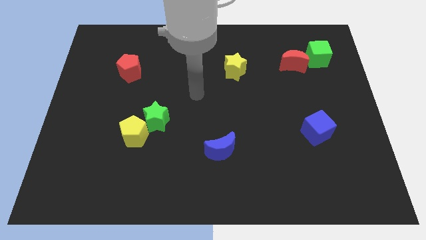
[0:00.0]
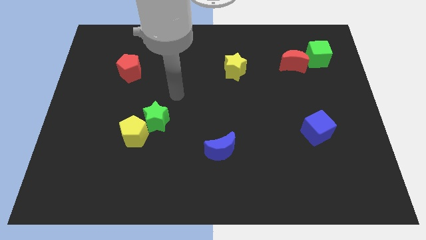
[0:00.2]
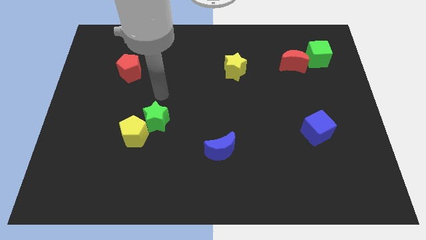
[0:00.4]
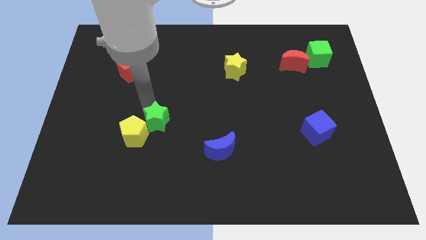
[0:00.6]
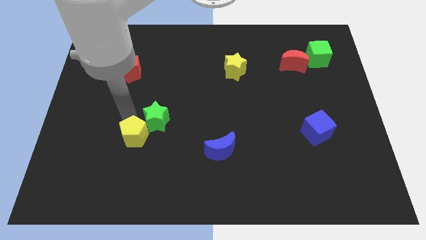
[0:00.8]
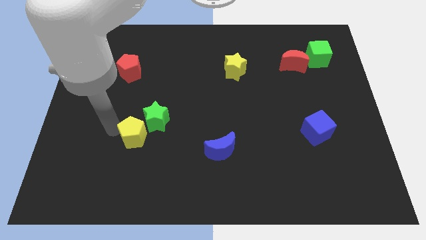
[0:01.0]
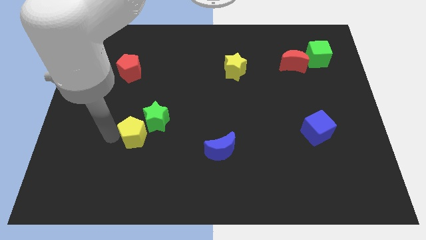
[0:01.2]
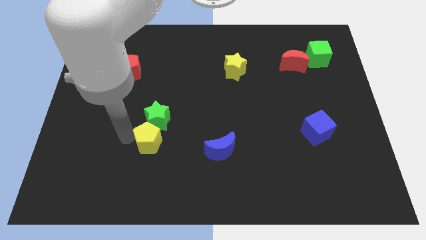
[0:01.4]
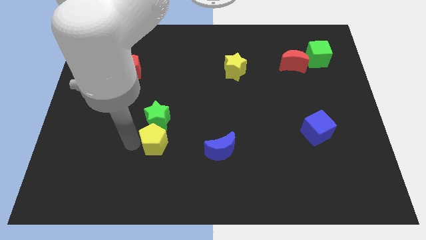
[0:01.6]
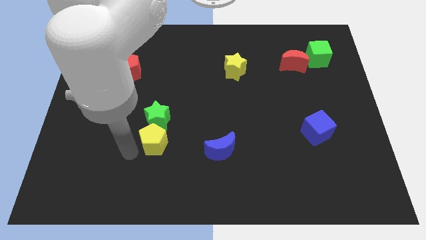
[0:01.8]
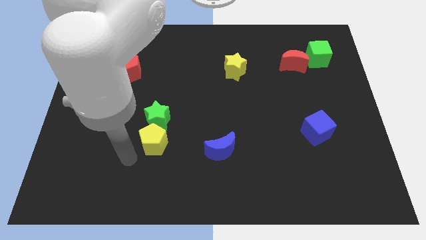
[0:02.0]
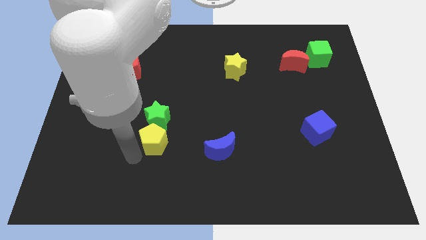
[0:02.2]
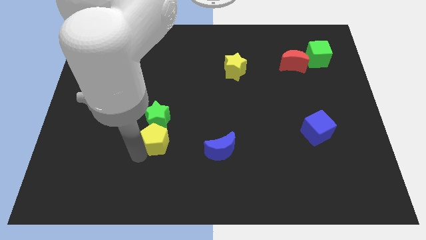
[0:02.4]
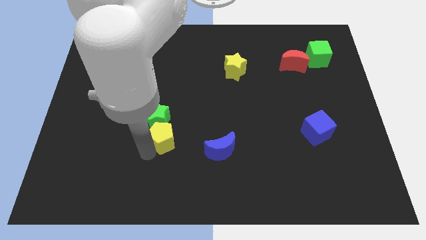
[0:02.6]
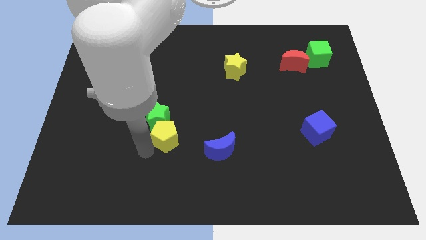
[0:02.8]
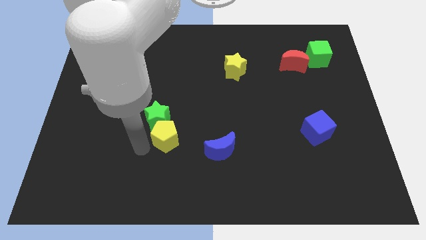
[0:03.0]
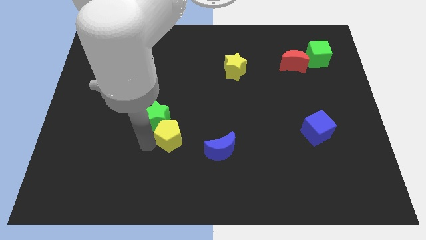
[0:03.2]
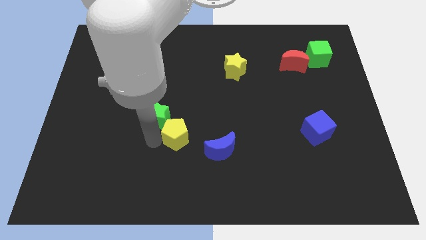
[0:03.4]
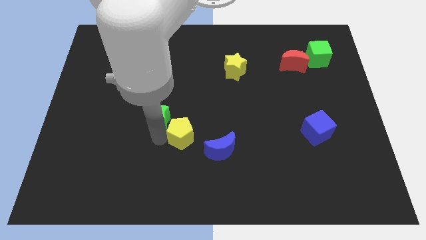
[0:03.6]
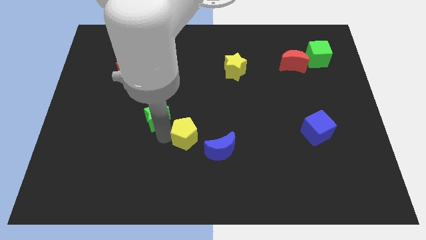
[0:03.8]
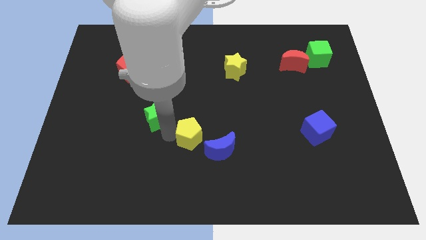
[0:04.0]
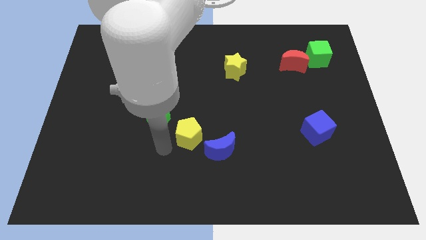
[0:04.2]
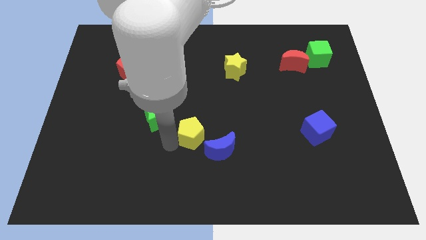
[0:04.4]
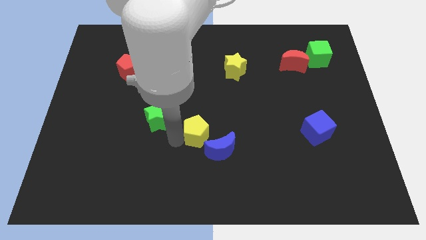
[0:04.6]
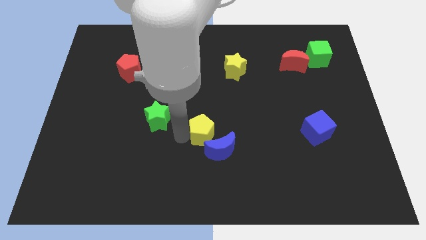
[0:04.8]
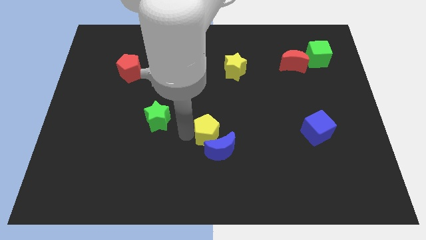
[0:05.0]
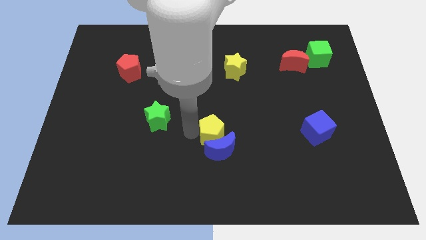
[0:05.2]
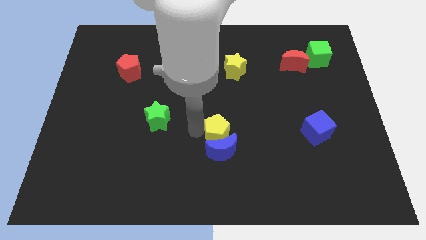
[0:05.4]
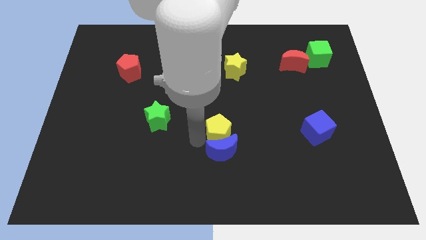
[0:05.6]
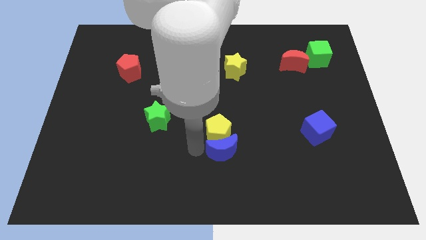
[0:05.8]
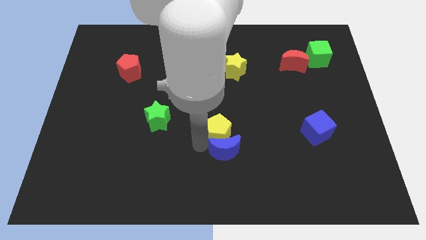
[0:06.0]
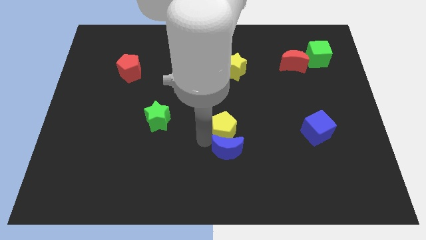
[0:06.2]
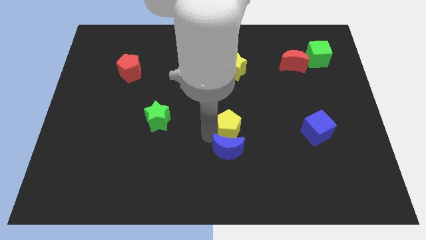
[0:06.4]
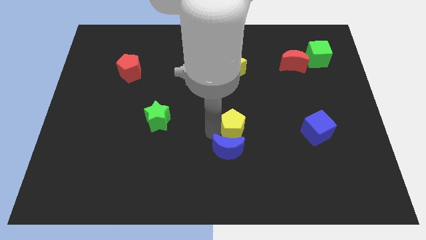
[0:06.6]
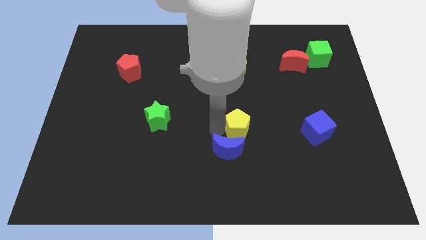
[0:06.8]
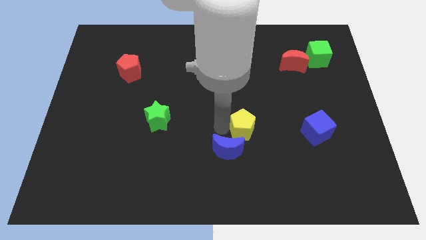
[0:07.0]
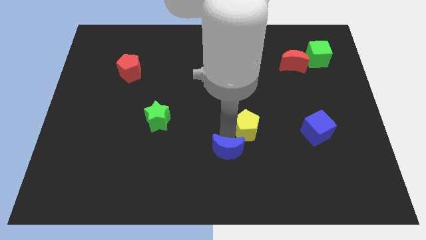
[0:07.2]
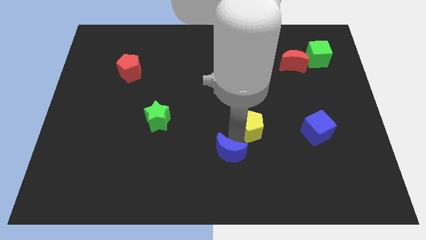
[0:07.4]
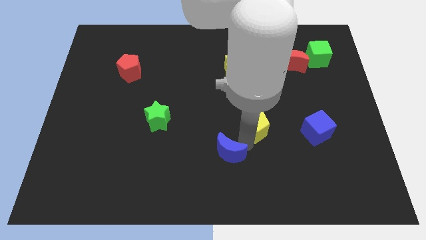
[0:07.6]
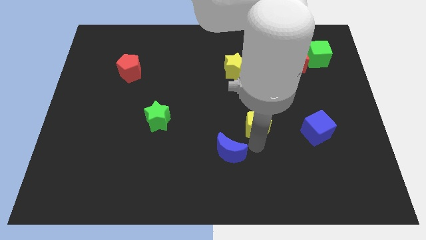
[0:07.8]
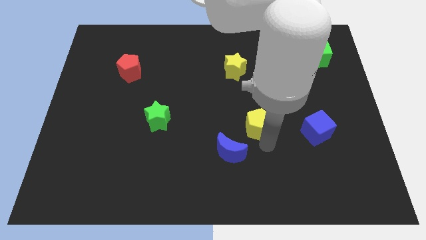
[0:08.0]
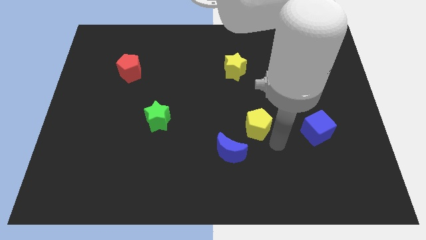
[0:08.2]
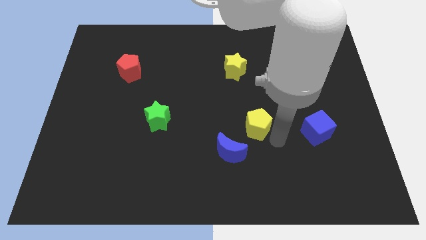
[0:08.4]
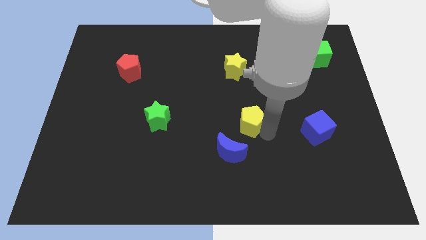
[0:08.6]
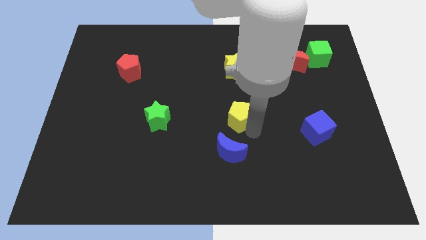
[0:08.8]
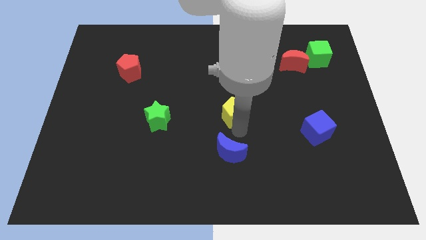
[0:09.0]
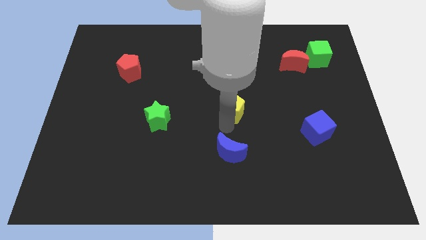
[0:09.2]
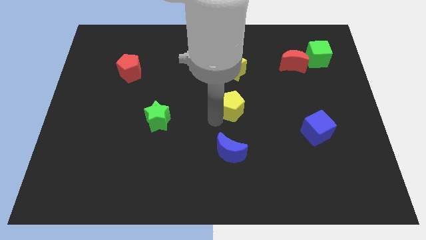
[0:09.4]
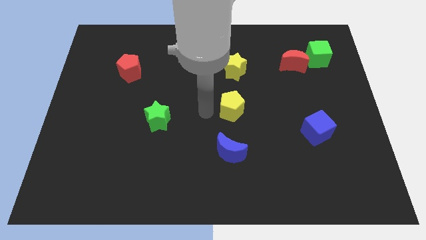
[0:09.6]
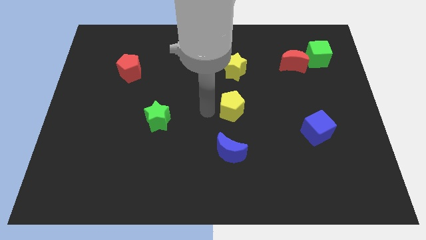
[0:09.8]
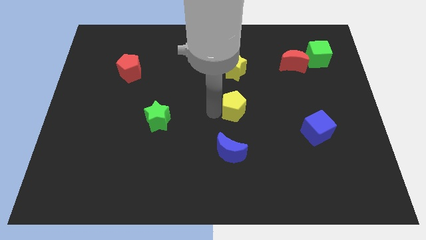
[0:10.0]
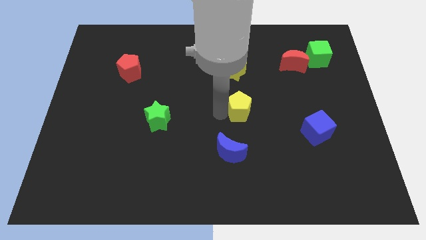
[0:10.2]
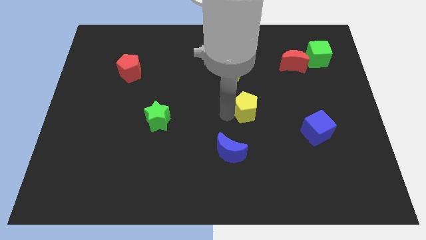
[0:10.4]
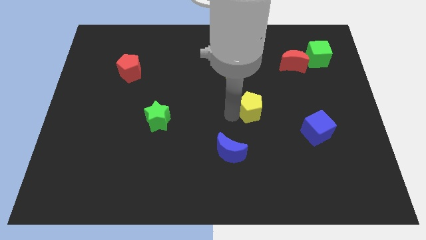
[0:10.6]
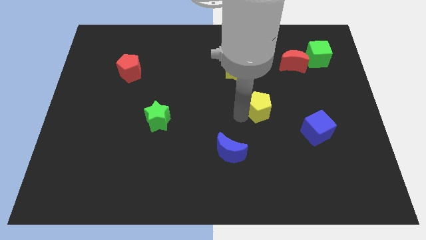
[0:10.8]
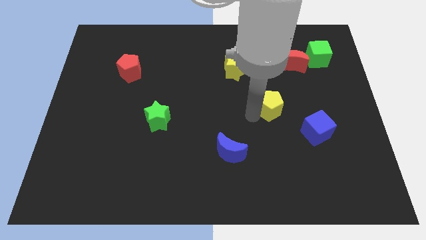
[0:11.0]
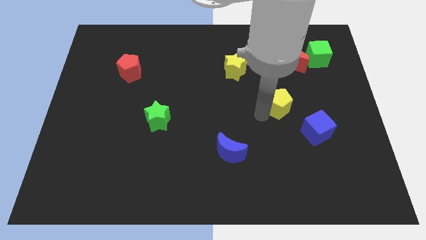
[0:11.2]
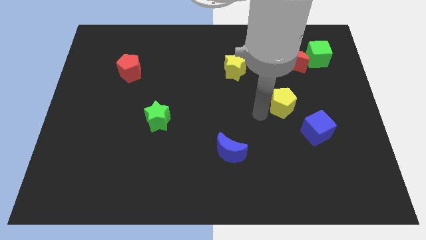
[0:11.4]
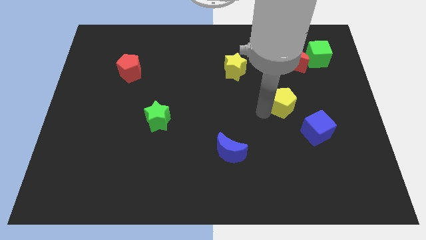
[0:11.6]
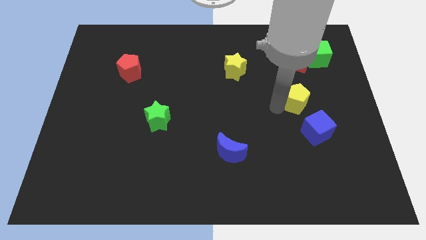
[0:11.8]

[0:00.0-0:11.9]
slide the yellow pentagon to the top of the blue cube

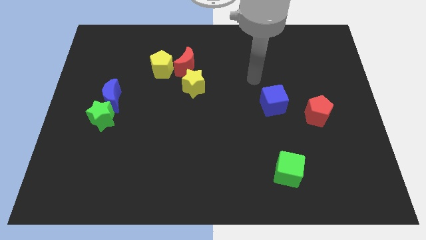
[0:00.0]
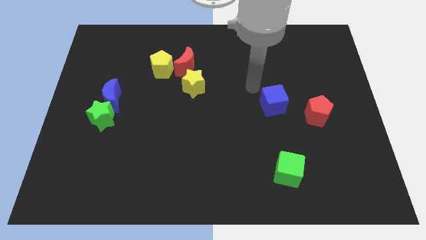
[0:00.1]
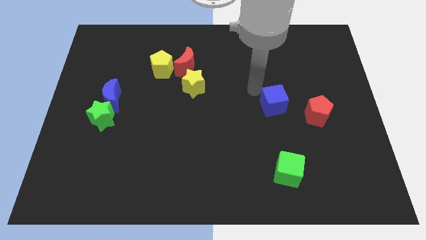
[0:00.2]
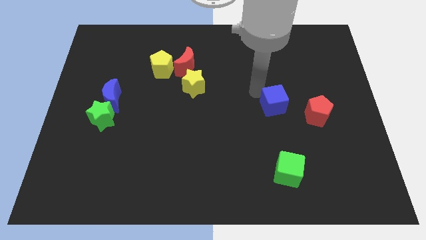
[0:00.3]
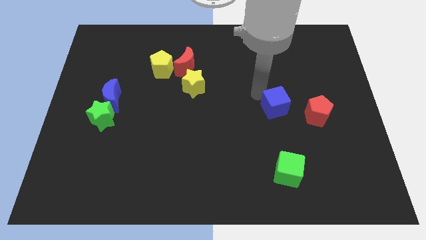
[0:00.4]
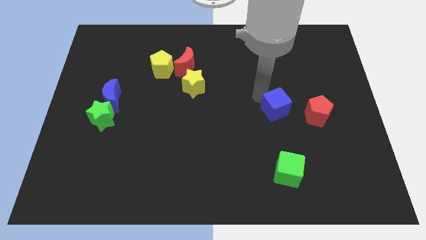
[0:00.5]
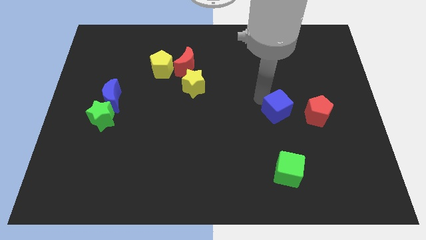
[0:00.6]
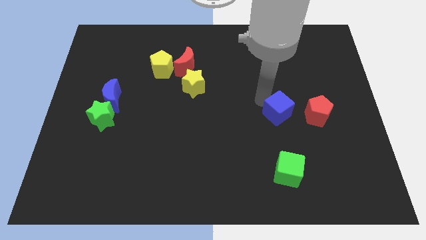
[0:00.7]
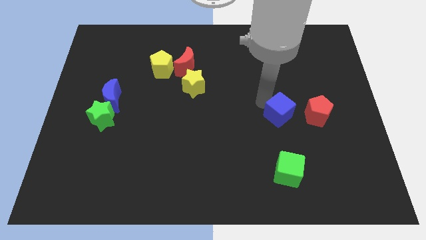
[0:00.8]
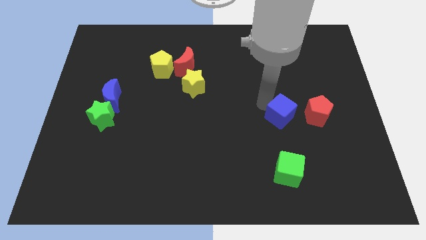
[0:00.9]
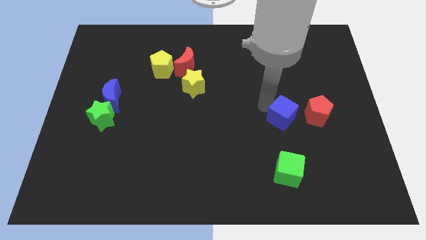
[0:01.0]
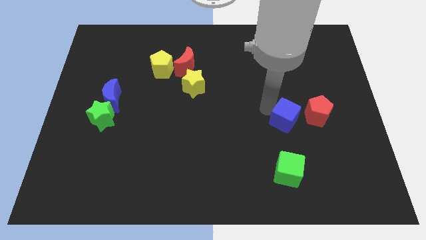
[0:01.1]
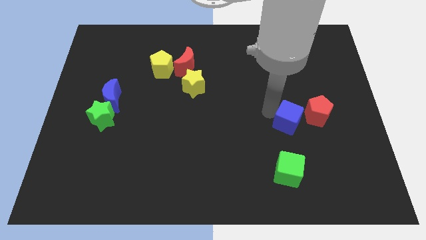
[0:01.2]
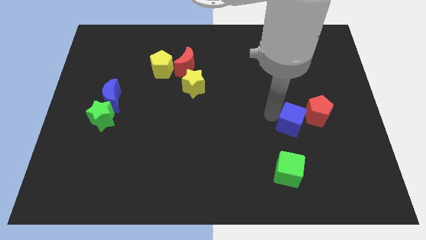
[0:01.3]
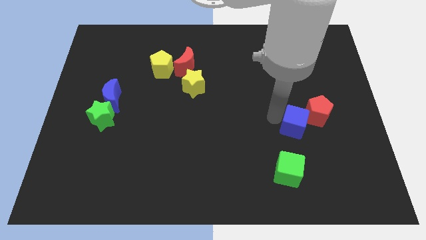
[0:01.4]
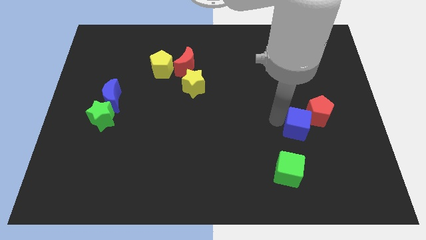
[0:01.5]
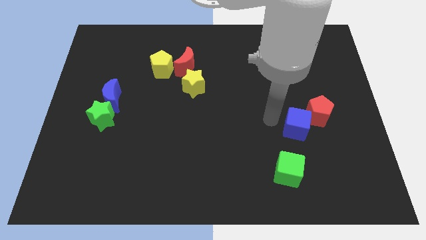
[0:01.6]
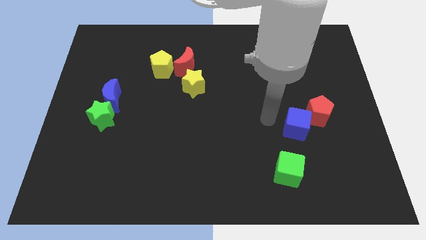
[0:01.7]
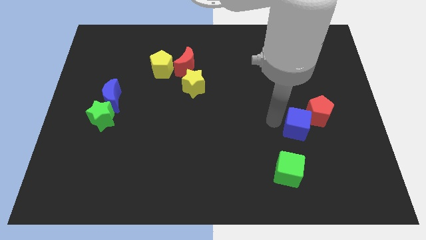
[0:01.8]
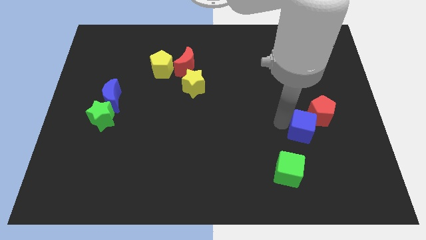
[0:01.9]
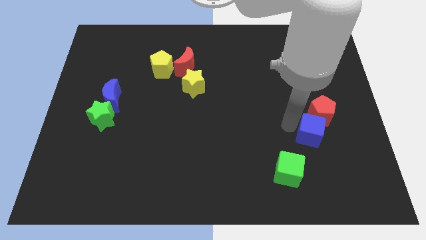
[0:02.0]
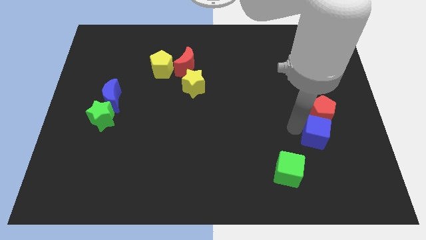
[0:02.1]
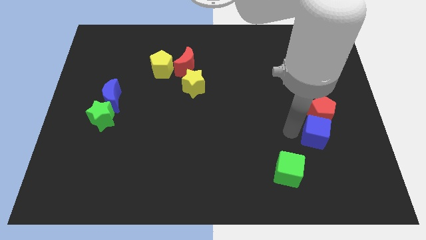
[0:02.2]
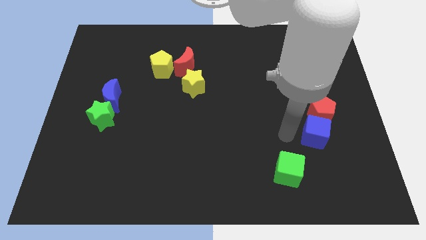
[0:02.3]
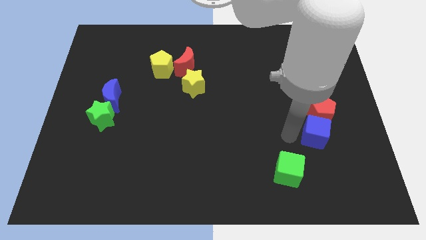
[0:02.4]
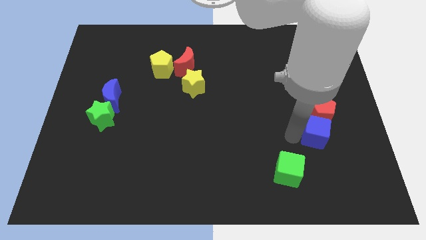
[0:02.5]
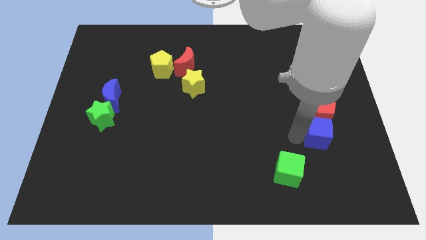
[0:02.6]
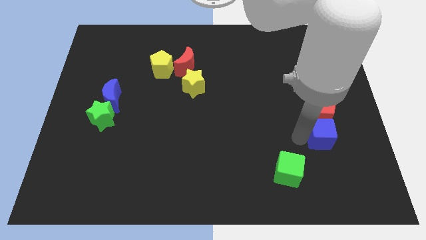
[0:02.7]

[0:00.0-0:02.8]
put the blue cube to the bottom right side of the red pentagon

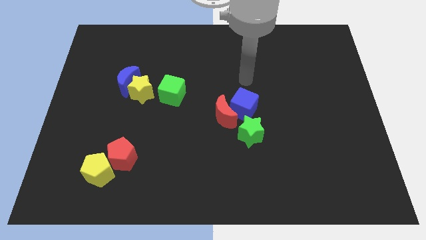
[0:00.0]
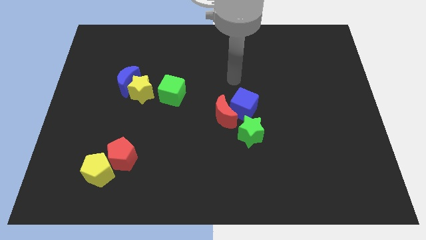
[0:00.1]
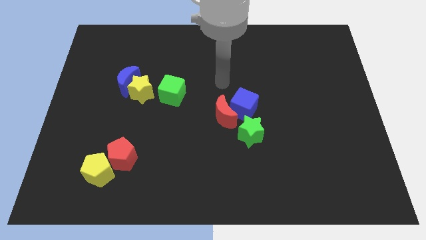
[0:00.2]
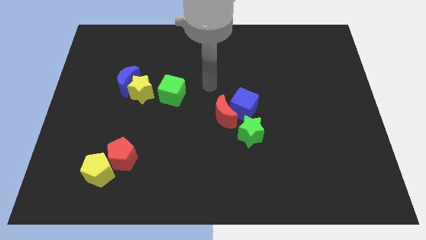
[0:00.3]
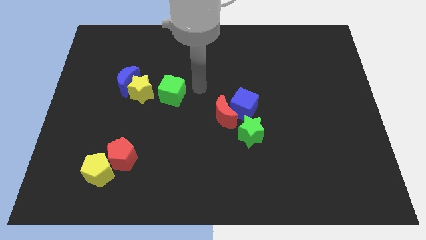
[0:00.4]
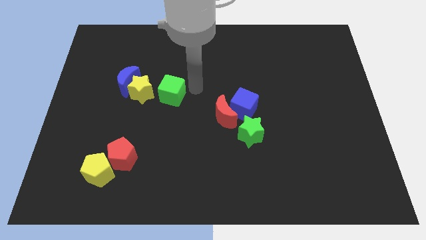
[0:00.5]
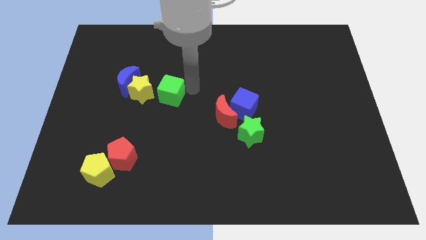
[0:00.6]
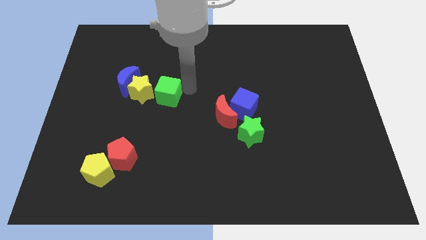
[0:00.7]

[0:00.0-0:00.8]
put the green cube to the bottom right of the blue moon
